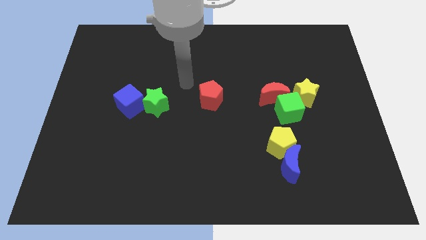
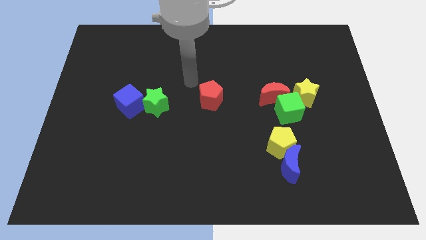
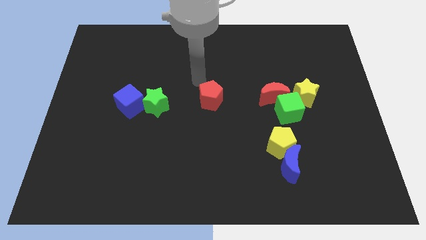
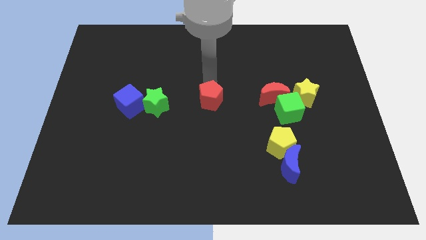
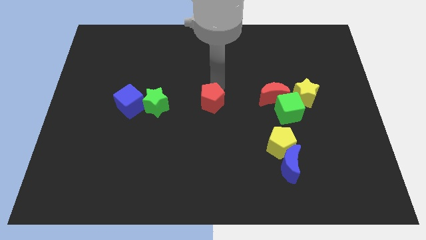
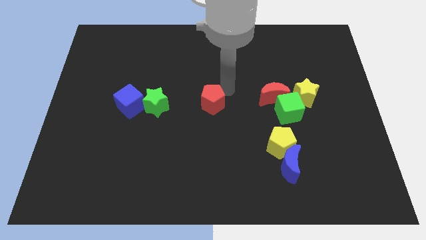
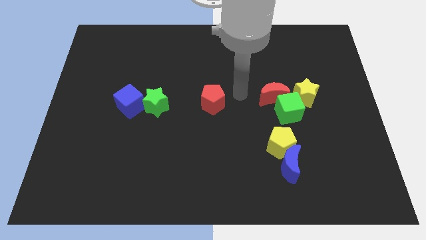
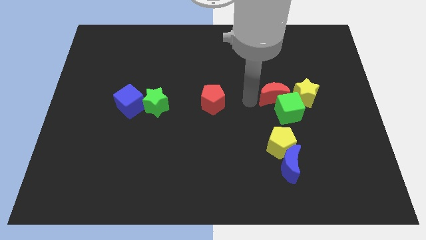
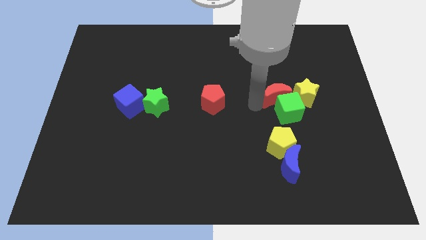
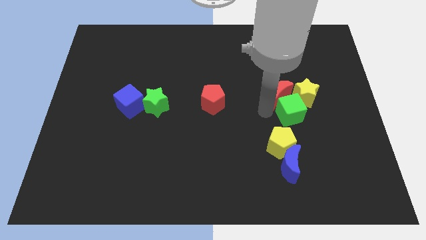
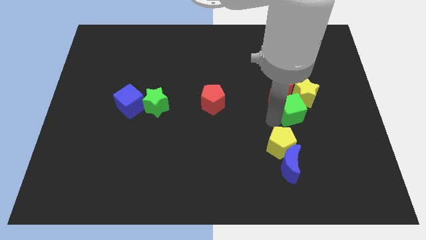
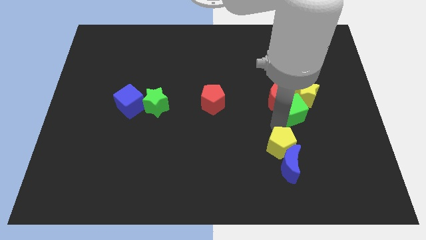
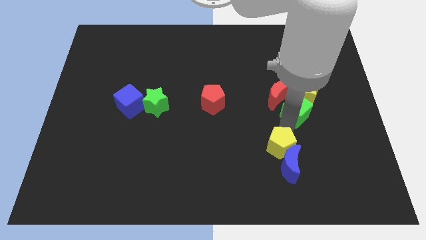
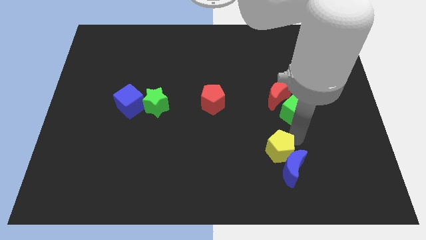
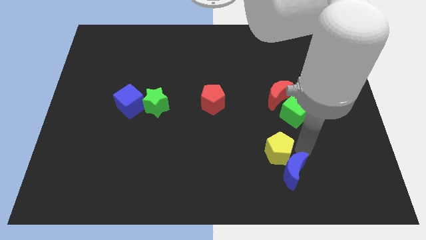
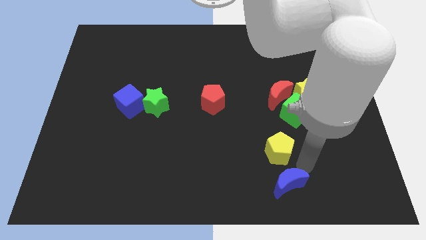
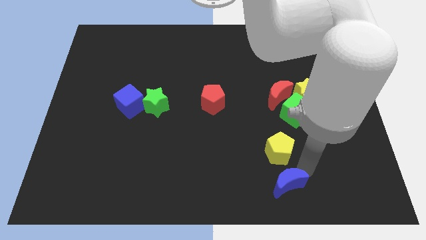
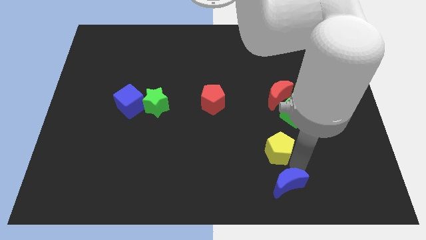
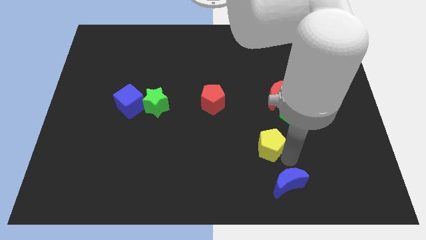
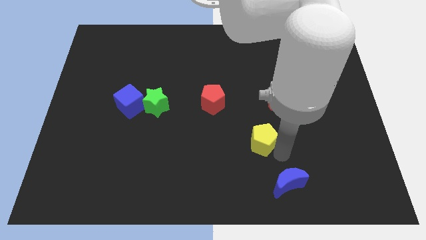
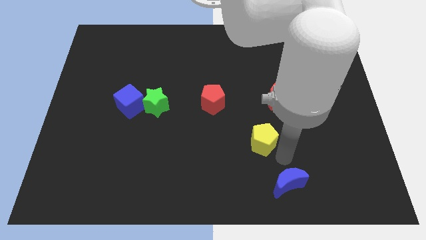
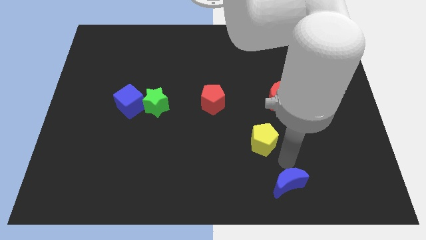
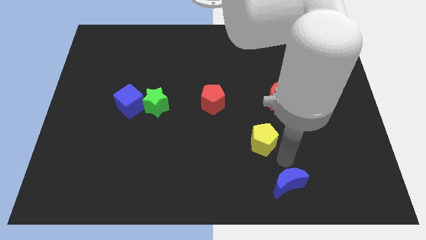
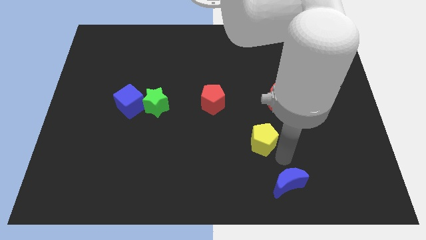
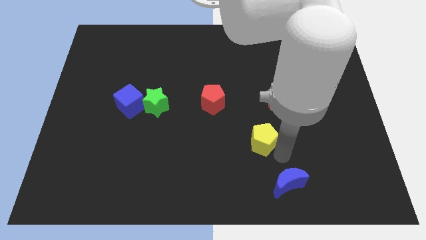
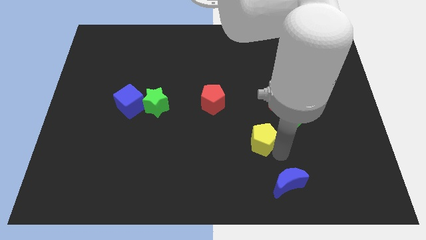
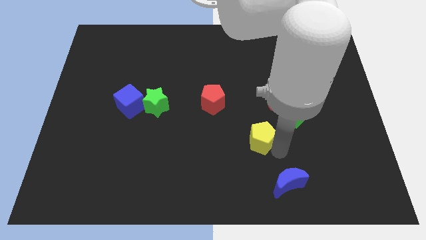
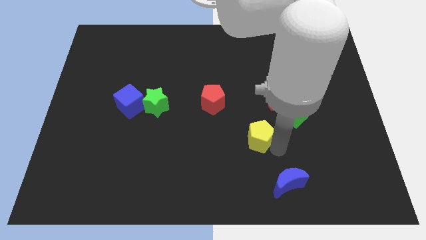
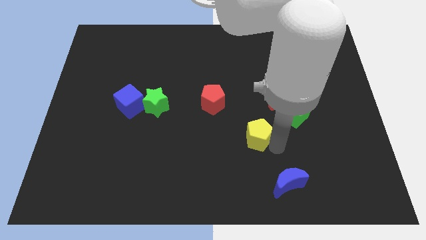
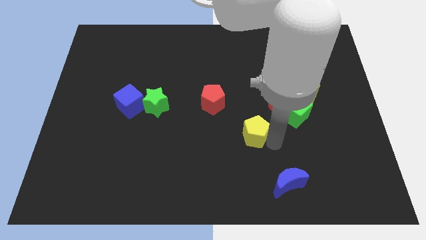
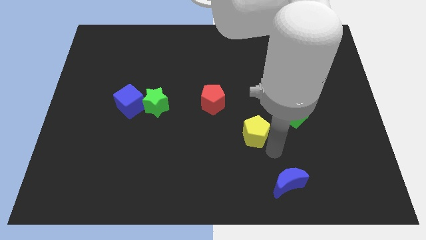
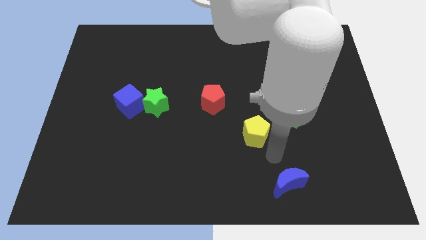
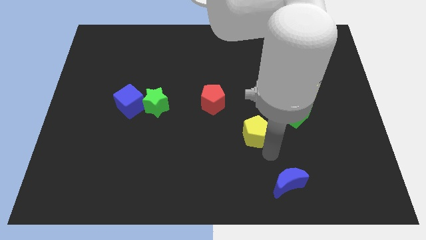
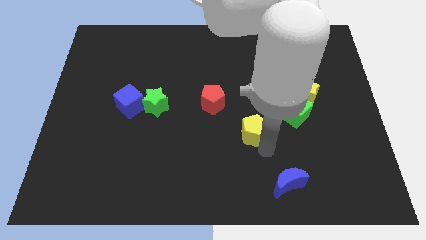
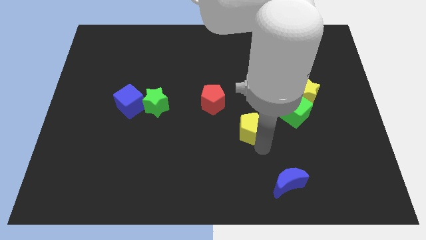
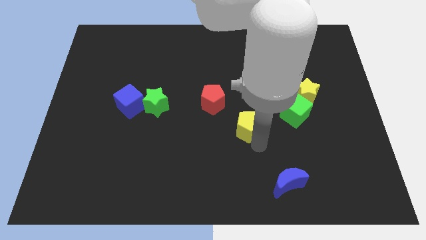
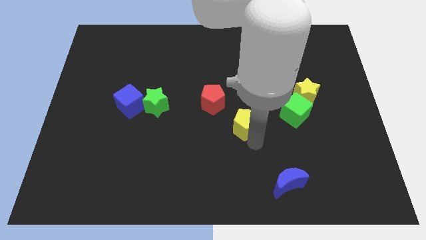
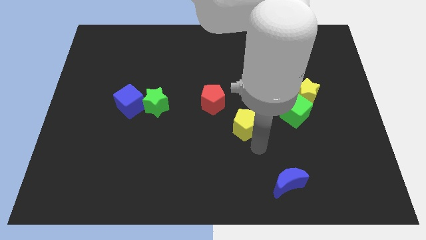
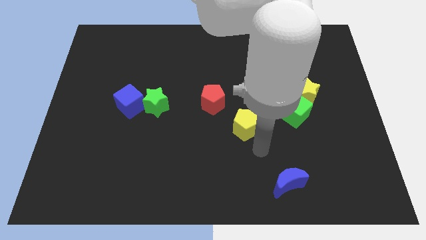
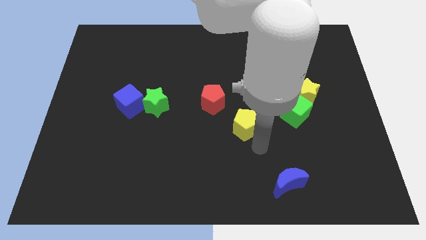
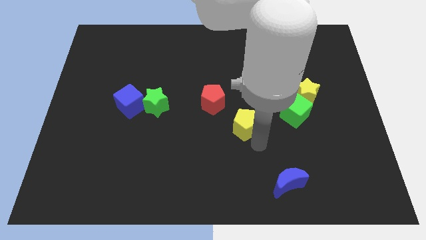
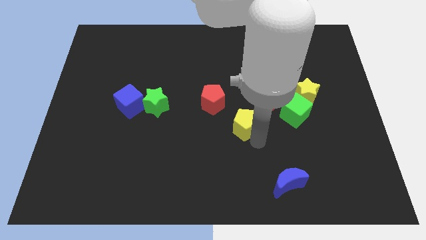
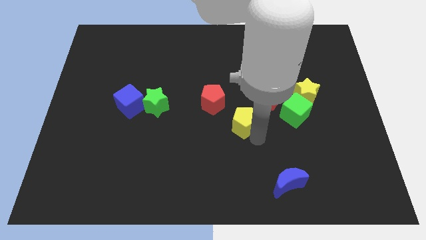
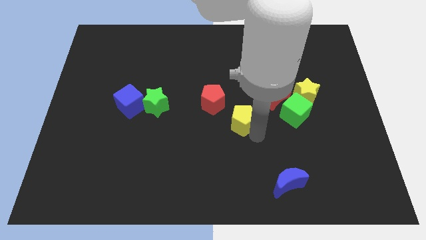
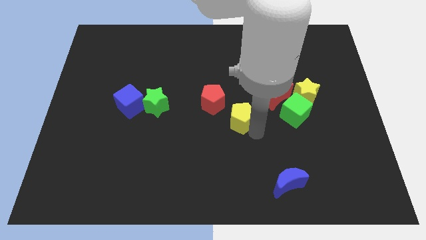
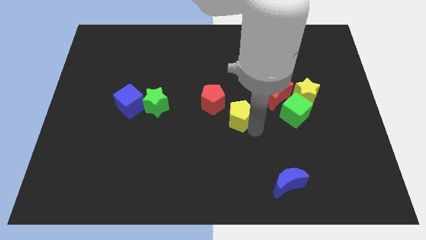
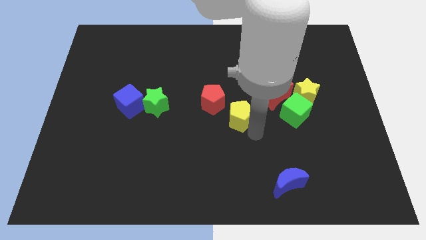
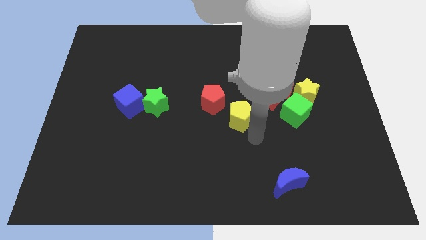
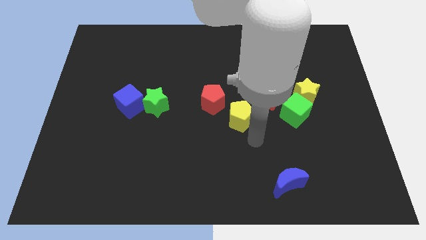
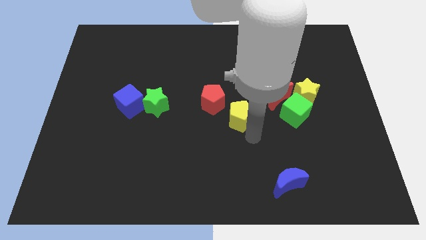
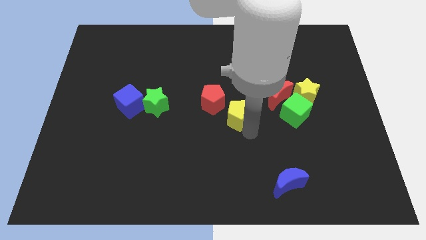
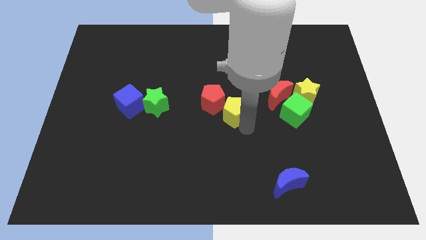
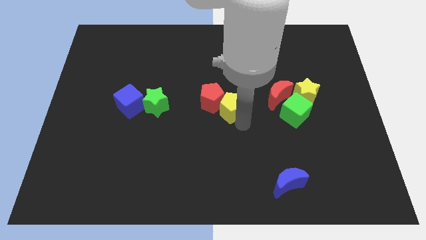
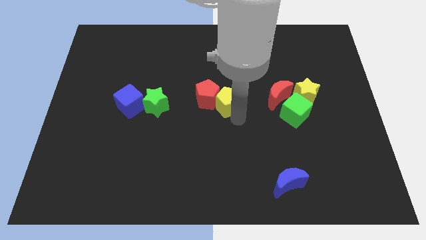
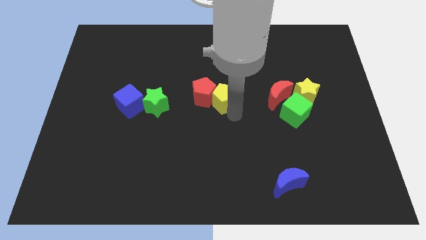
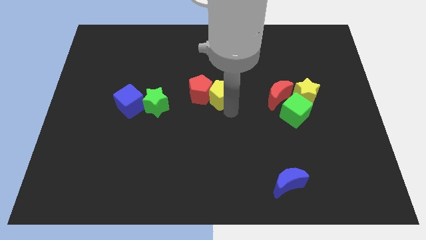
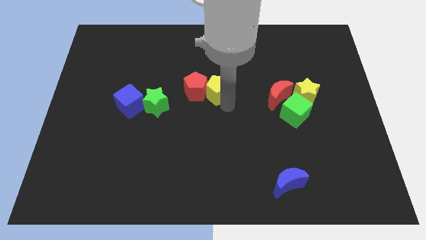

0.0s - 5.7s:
move the yellow pentagon upwards and to the left

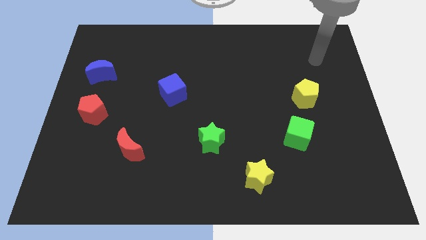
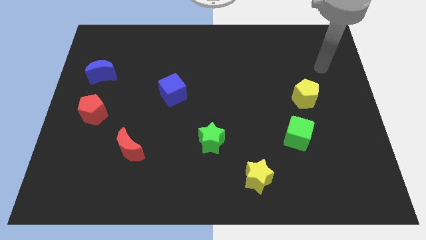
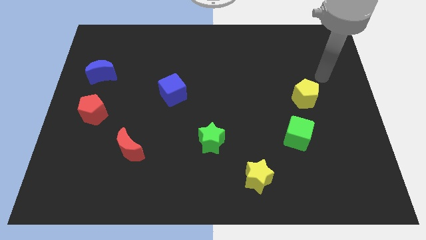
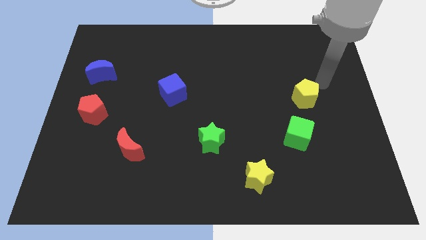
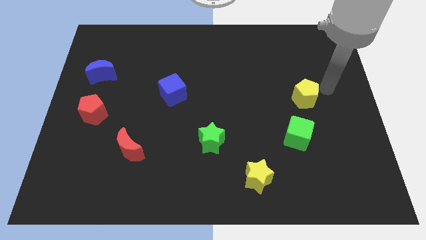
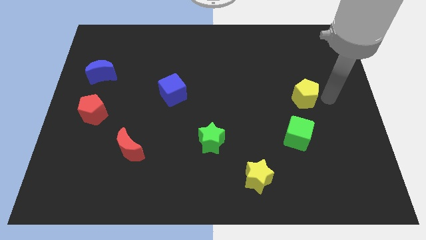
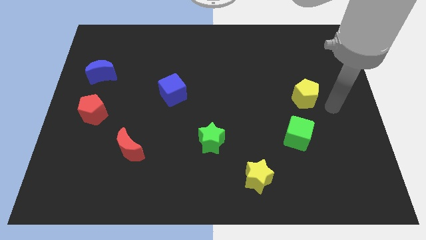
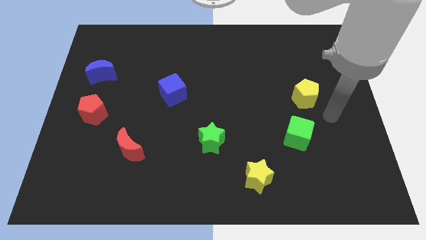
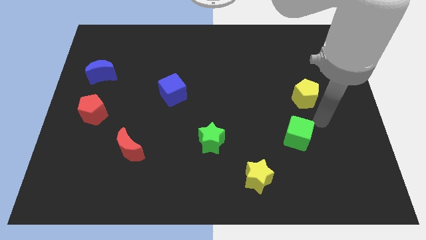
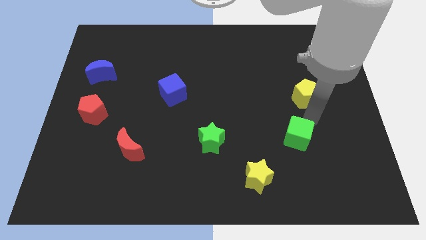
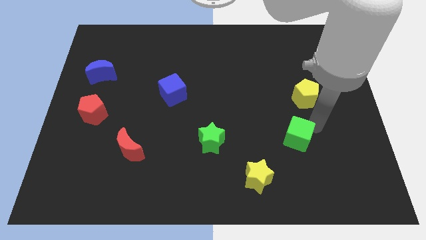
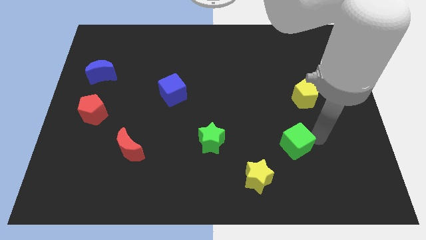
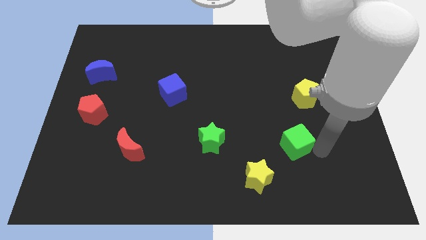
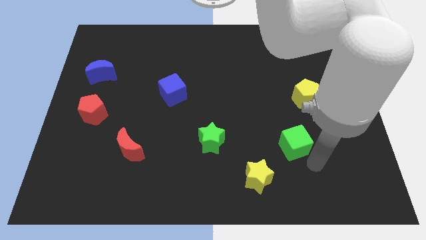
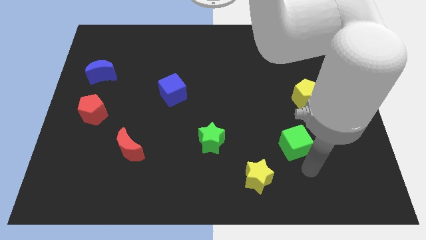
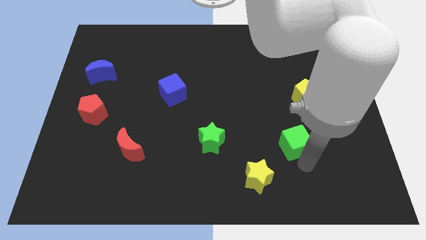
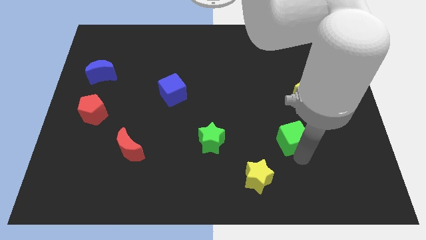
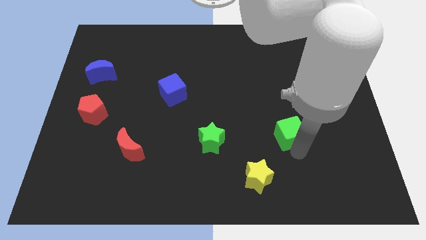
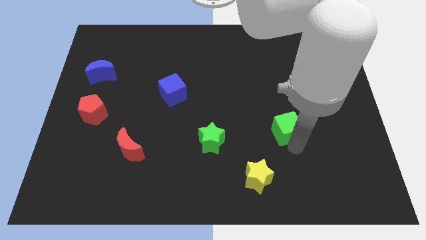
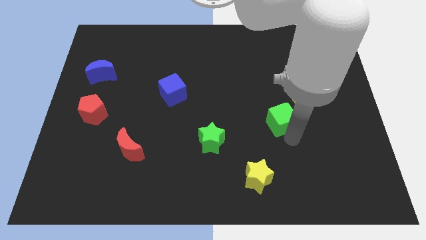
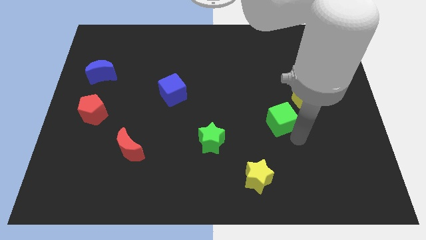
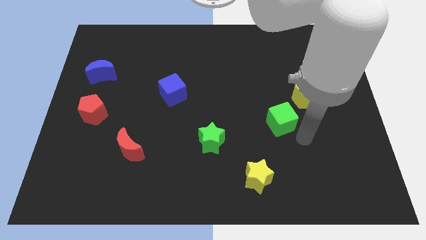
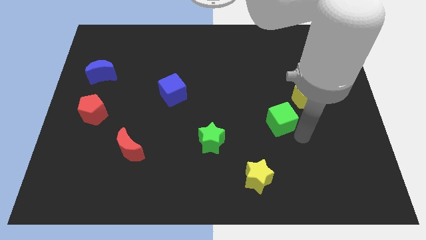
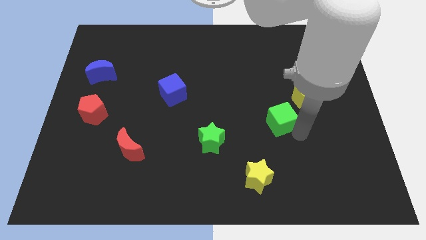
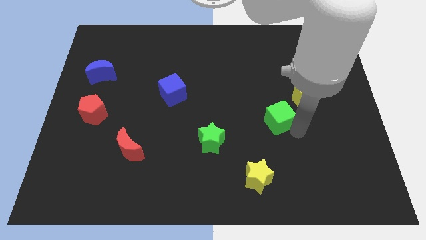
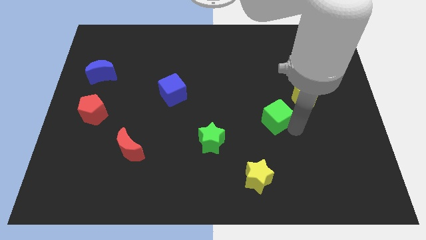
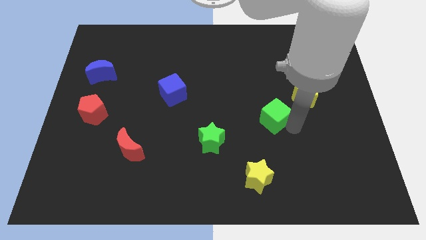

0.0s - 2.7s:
slide the green cube somewhat upwards and then left
